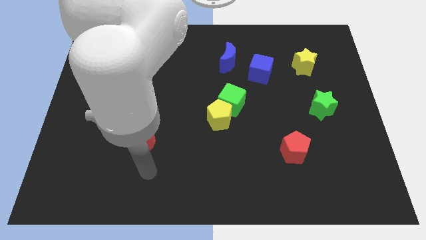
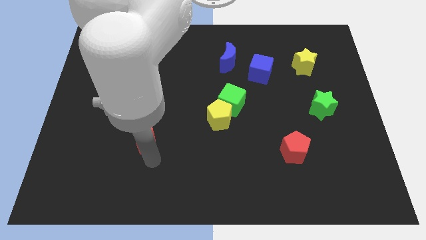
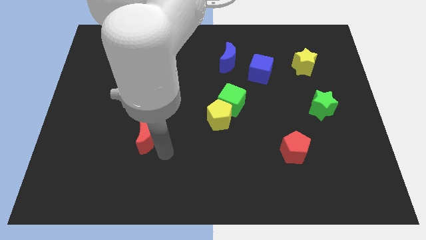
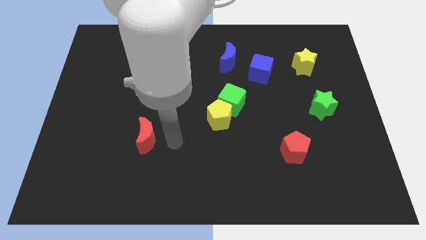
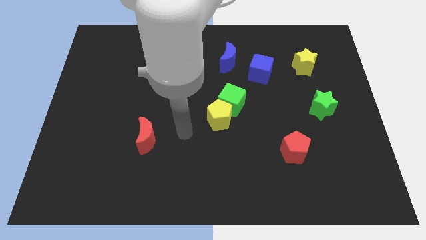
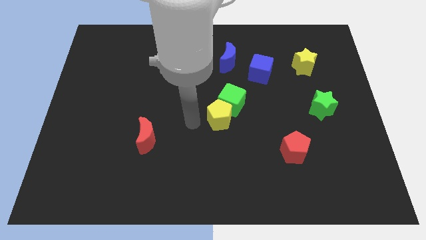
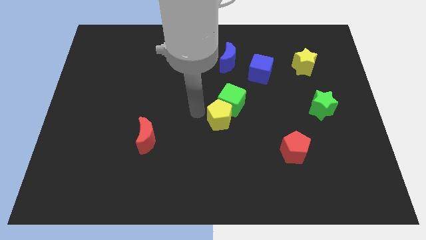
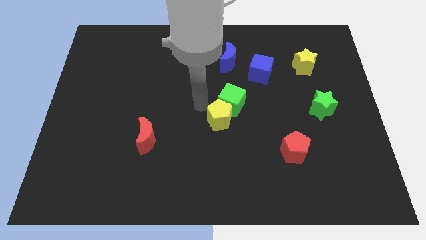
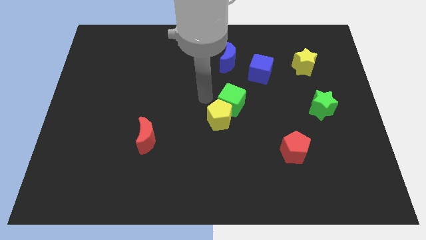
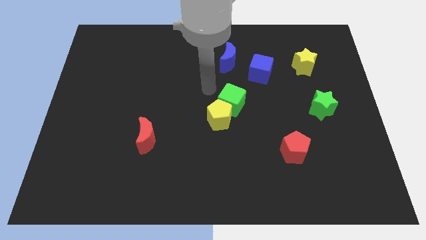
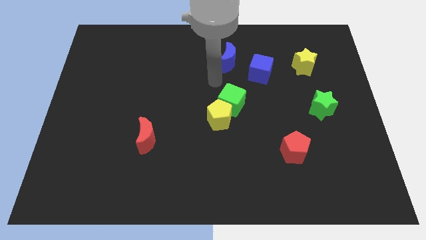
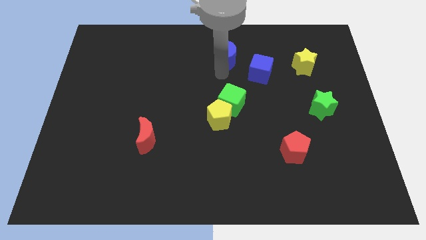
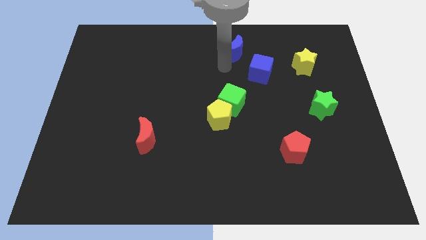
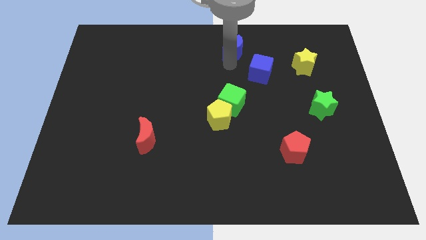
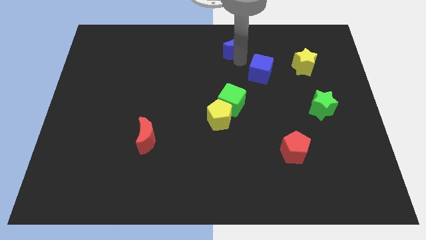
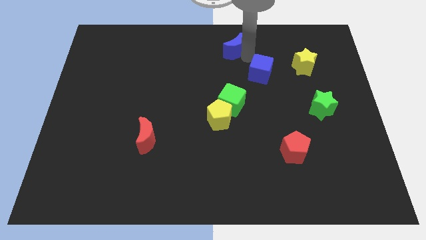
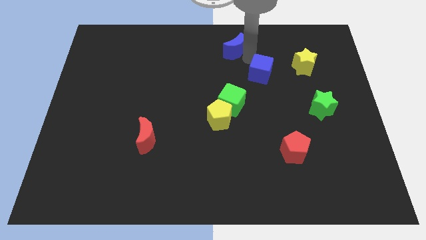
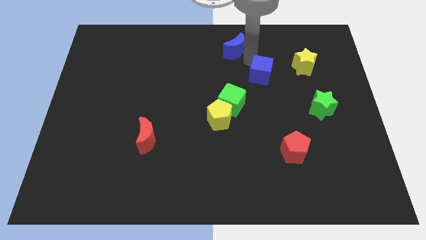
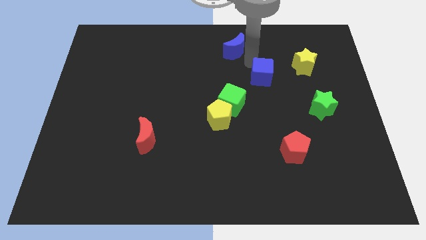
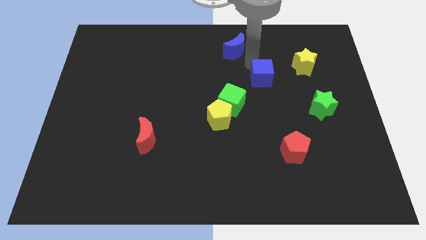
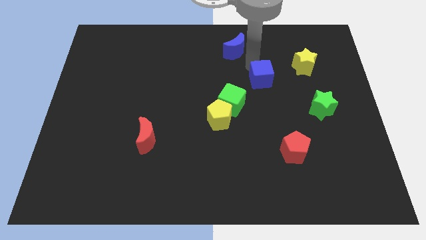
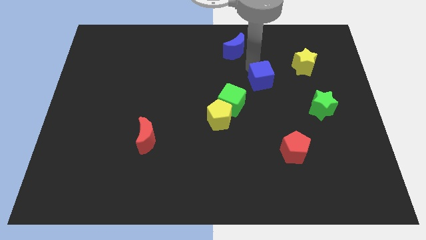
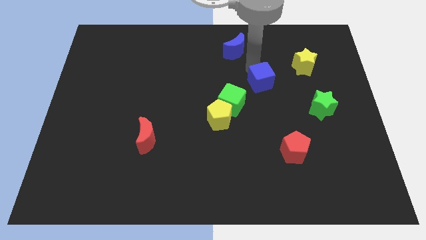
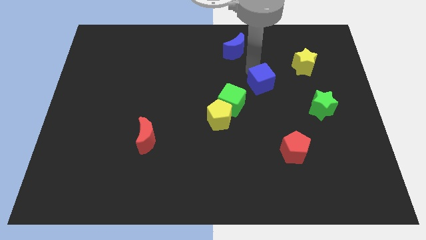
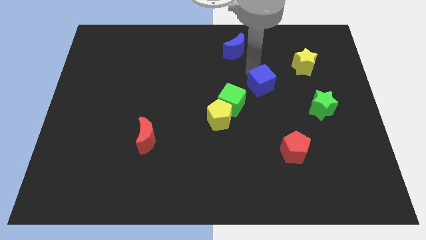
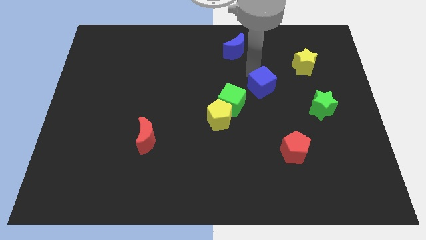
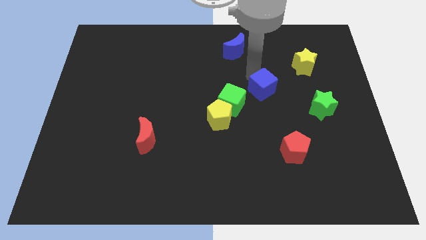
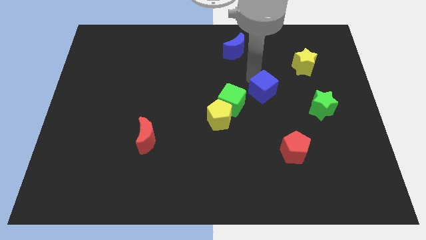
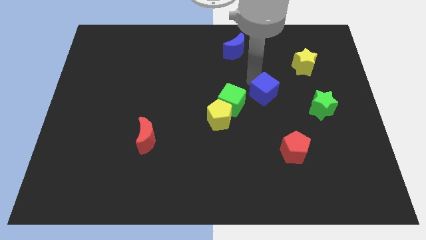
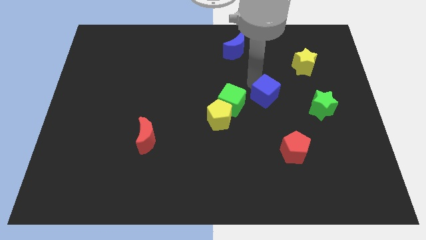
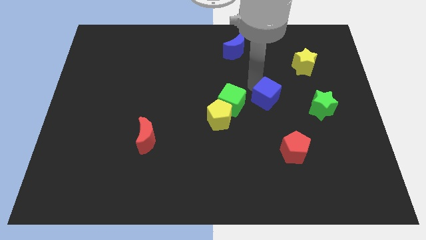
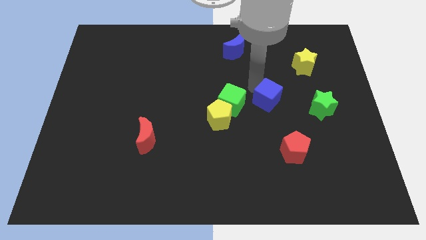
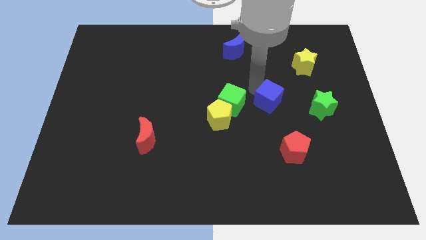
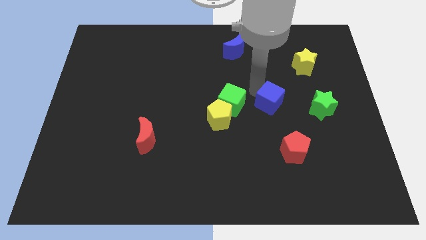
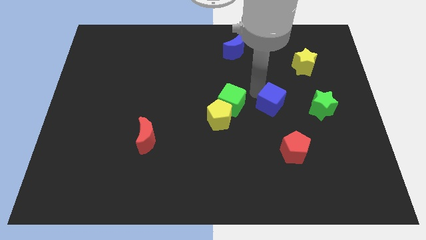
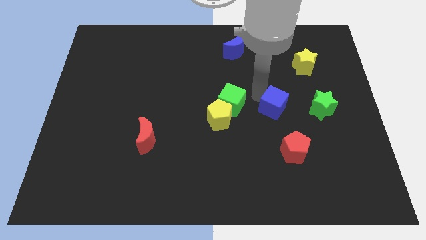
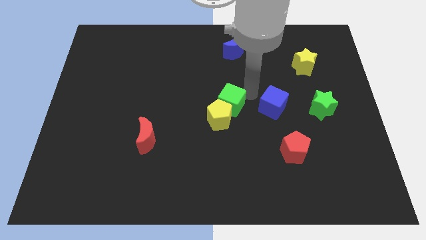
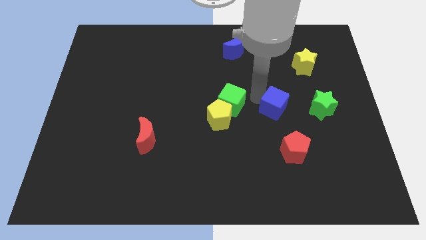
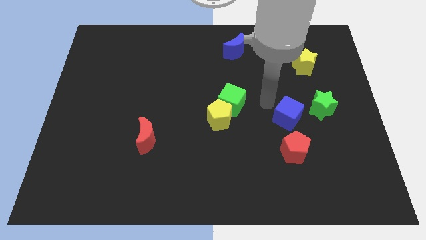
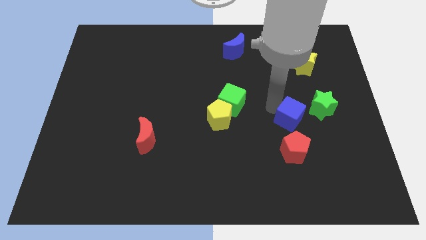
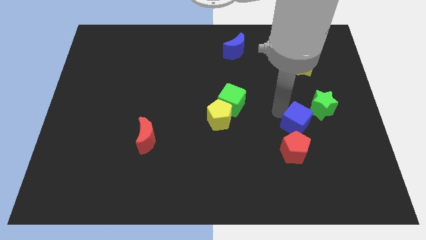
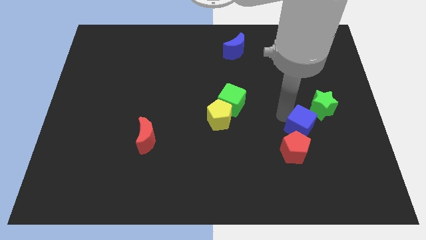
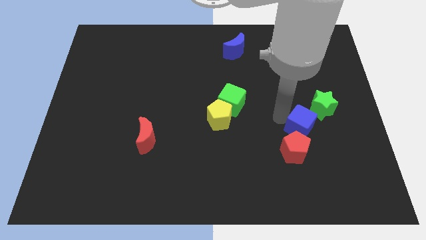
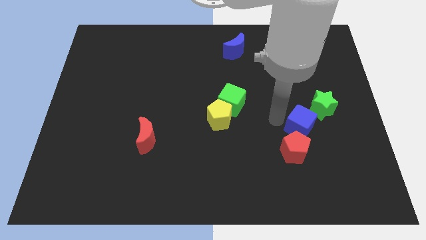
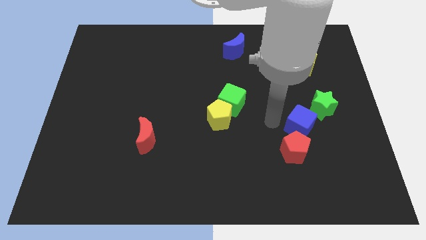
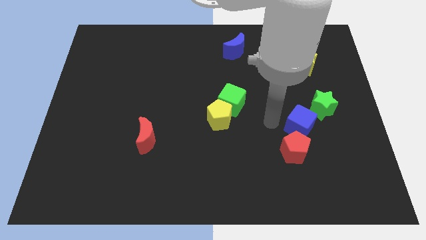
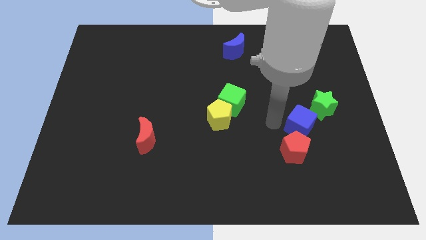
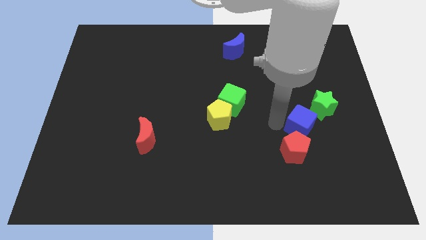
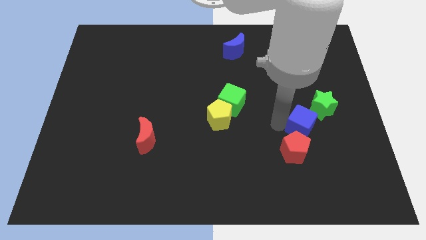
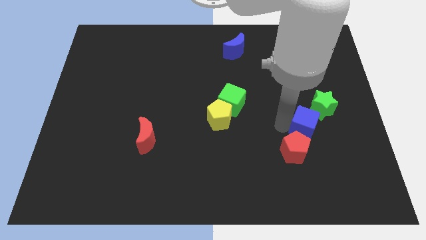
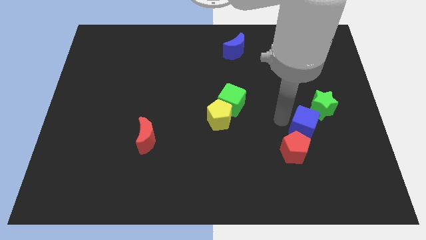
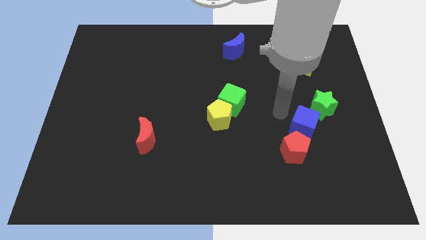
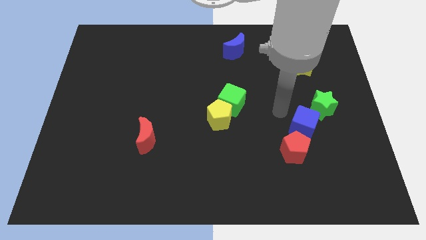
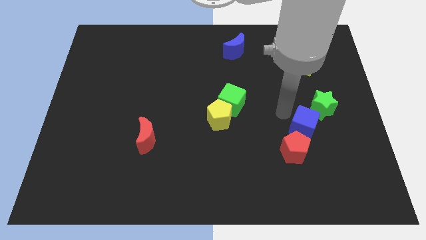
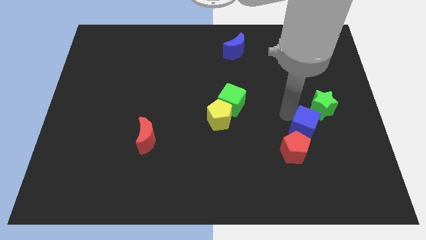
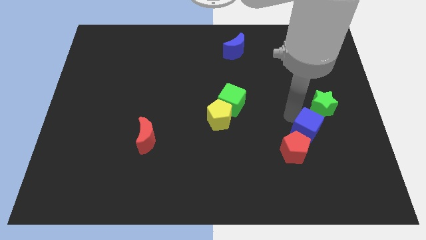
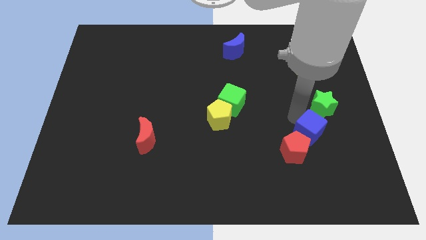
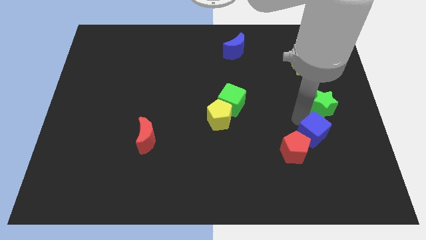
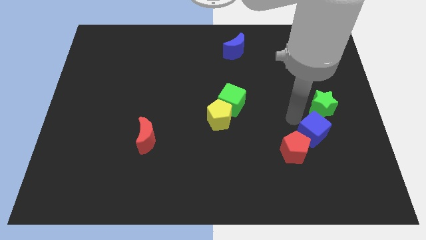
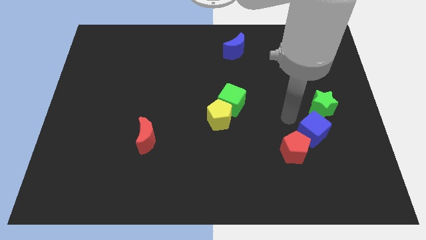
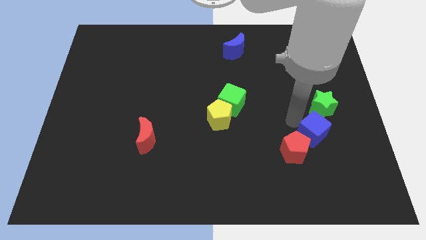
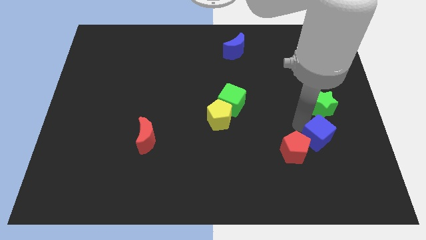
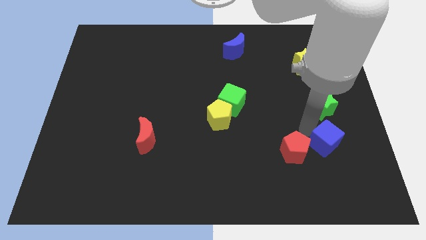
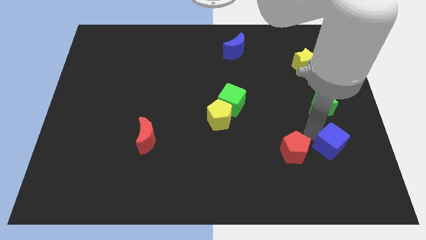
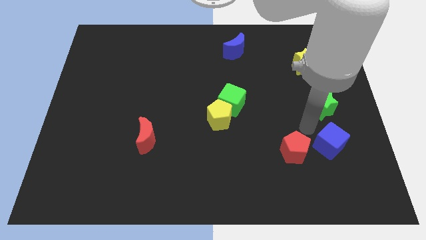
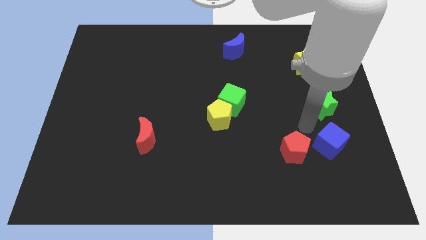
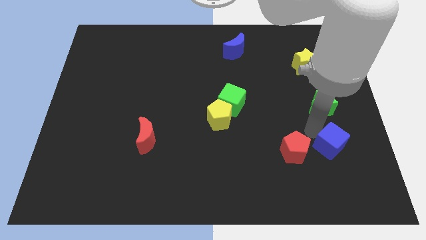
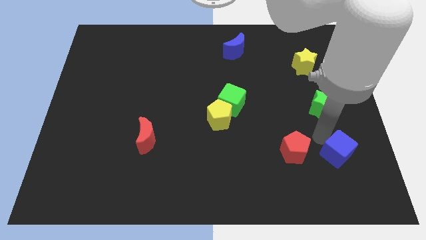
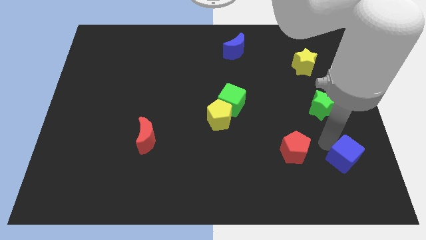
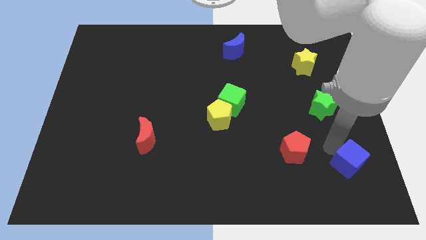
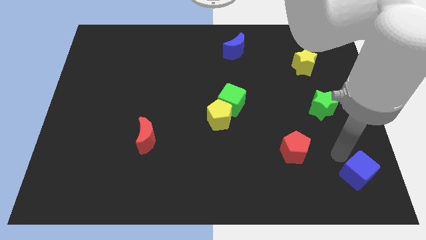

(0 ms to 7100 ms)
push the blue cube to the bottom right of the board
